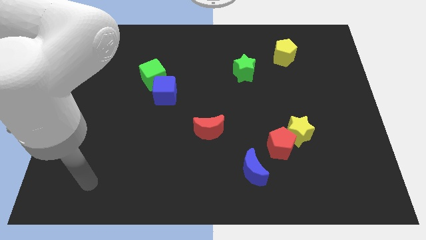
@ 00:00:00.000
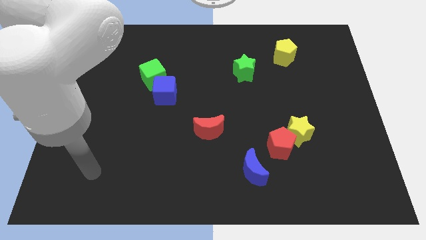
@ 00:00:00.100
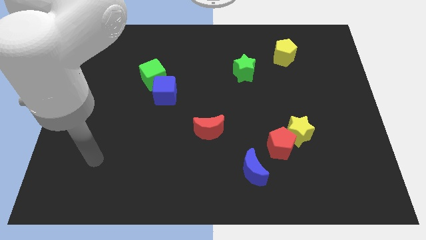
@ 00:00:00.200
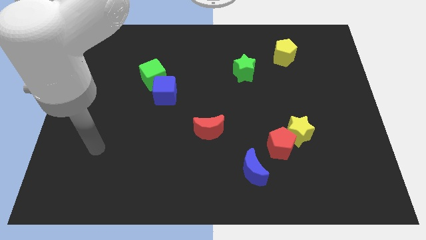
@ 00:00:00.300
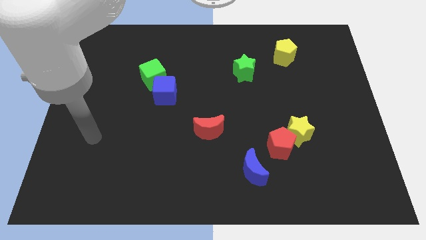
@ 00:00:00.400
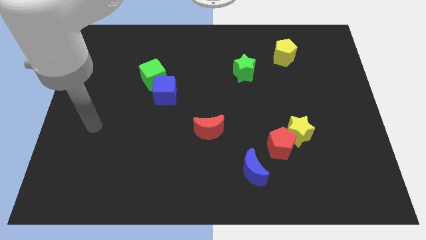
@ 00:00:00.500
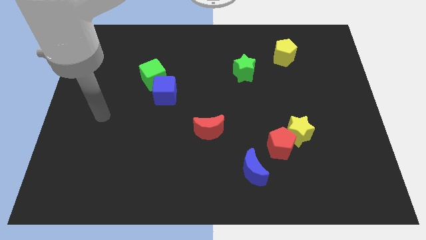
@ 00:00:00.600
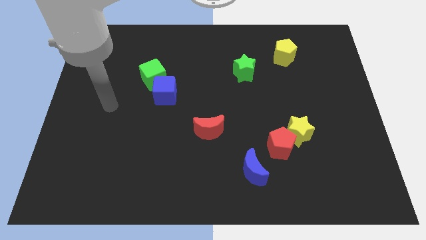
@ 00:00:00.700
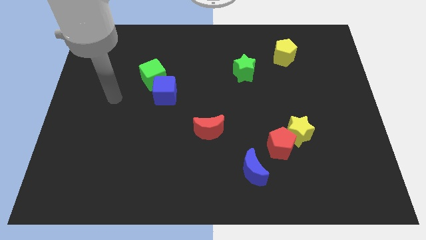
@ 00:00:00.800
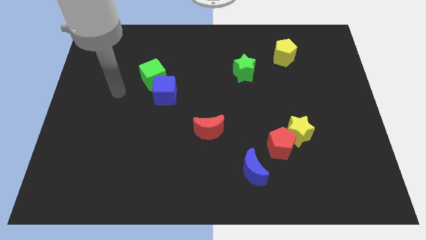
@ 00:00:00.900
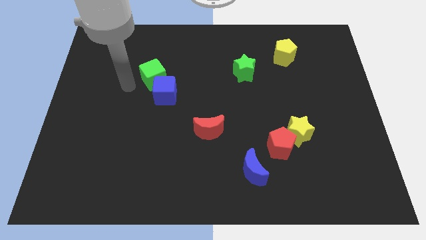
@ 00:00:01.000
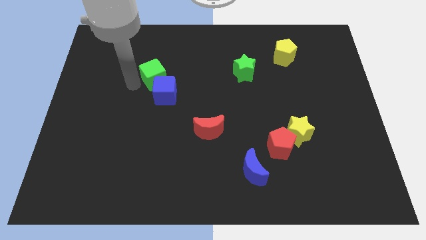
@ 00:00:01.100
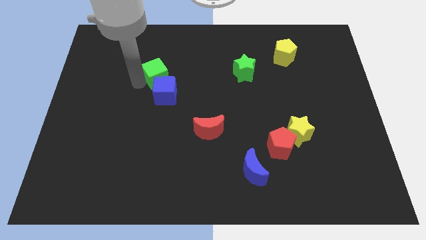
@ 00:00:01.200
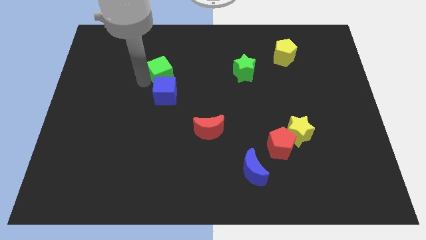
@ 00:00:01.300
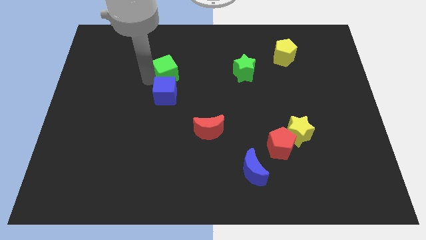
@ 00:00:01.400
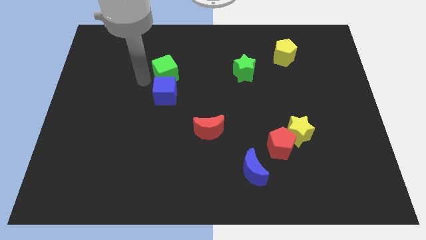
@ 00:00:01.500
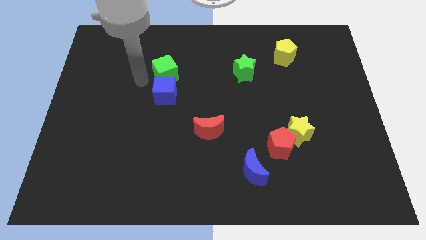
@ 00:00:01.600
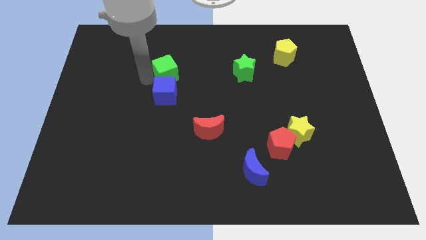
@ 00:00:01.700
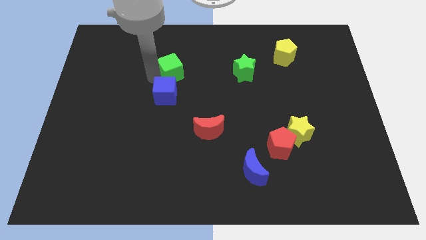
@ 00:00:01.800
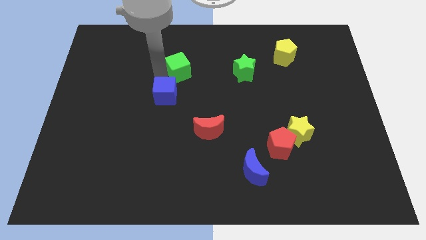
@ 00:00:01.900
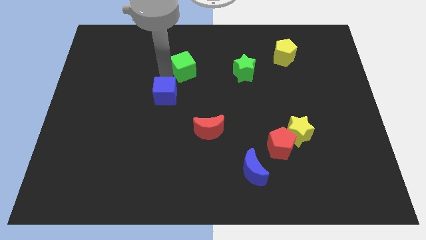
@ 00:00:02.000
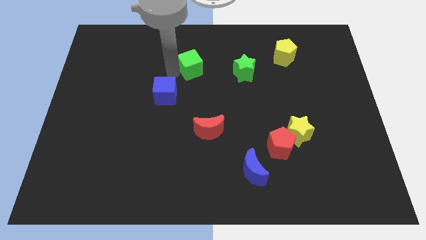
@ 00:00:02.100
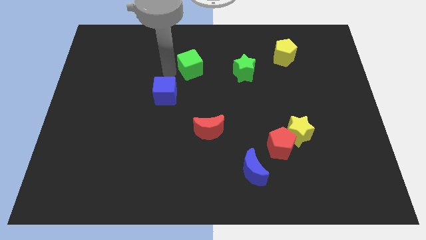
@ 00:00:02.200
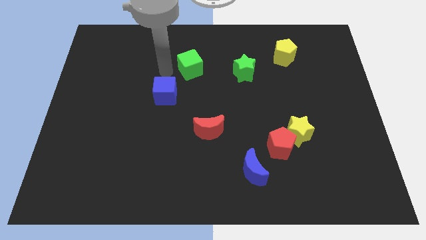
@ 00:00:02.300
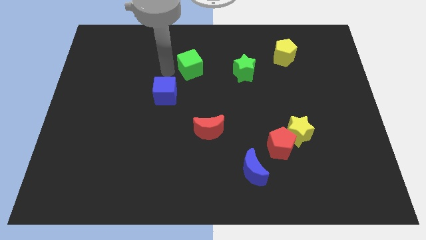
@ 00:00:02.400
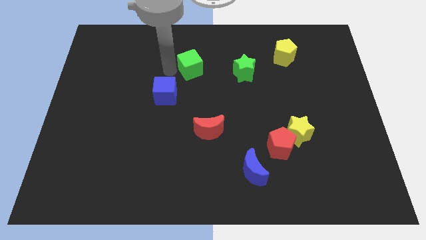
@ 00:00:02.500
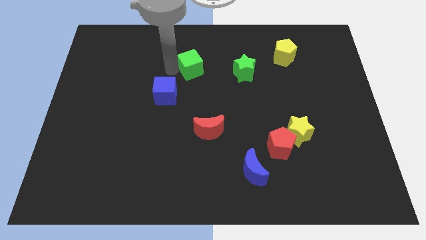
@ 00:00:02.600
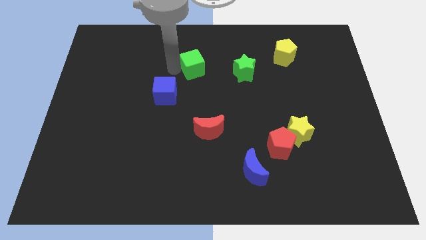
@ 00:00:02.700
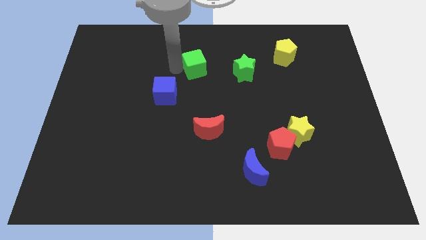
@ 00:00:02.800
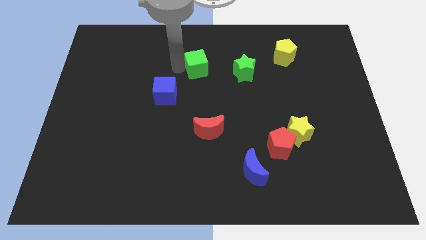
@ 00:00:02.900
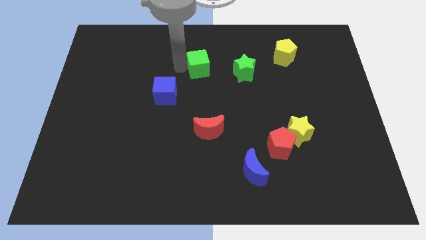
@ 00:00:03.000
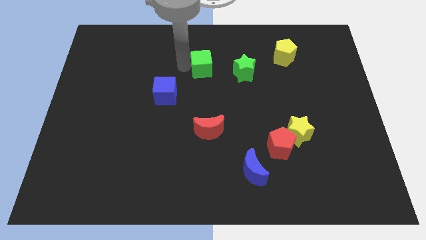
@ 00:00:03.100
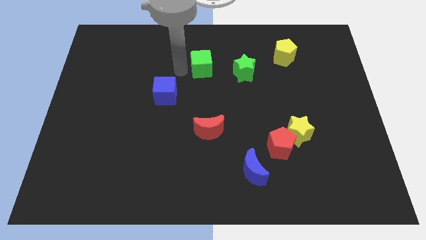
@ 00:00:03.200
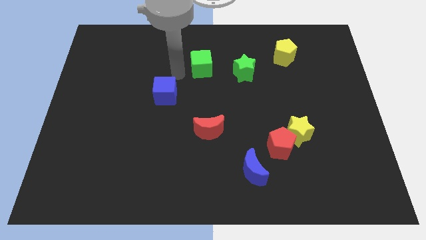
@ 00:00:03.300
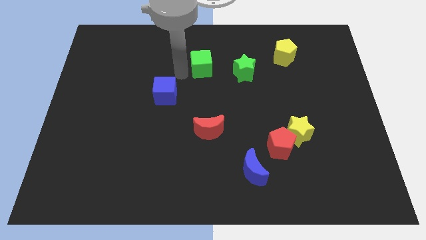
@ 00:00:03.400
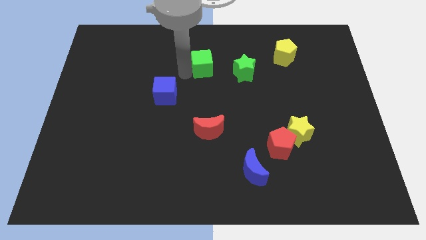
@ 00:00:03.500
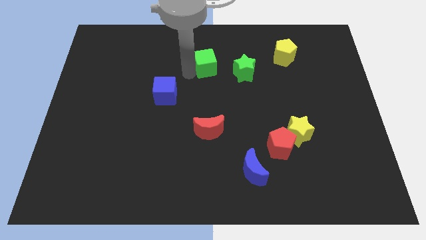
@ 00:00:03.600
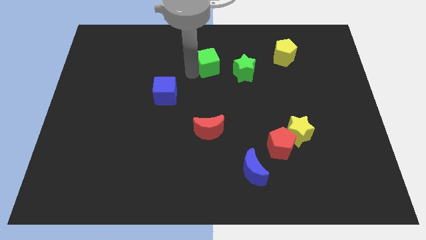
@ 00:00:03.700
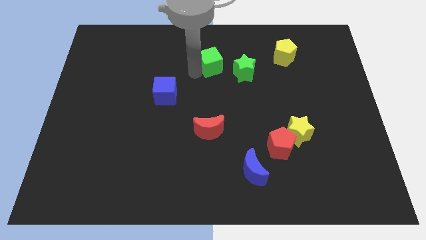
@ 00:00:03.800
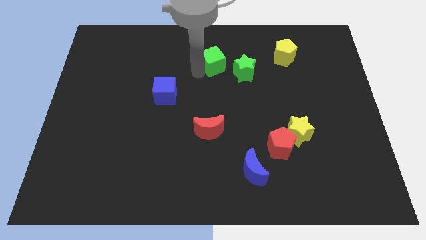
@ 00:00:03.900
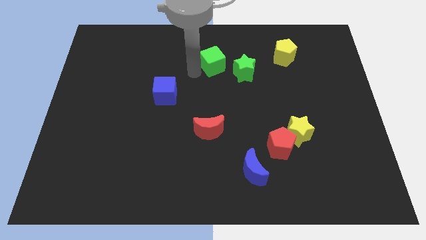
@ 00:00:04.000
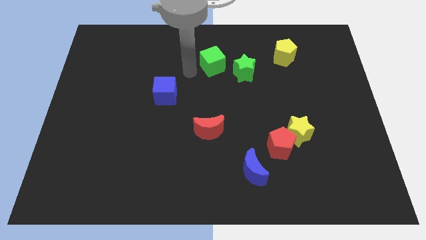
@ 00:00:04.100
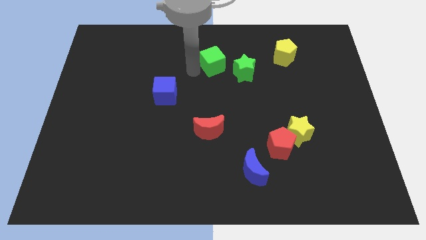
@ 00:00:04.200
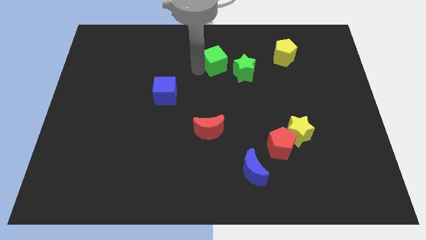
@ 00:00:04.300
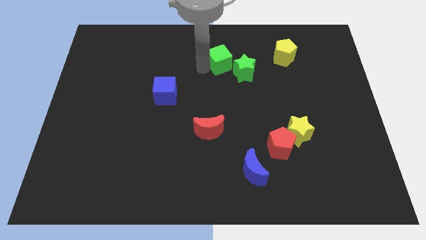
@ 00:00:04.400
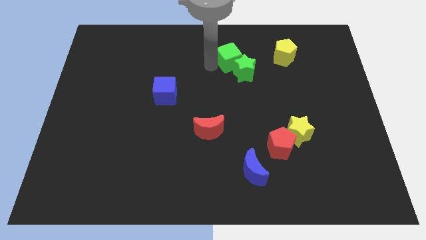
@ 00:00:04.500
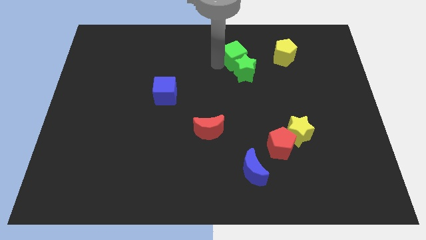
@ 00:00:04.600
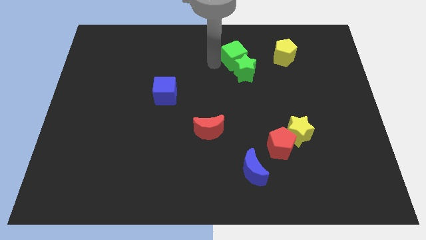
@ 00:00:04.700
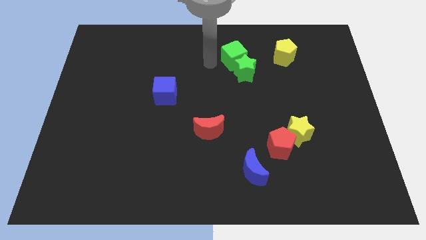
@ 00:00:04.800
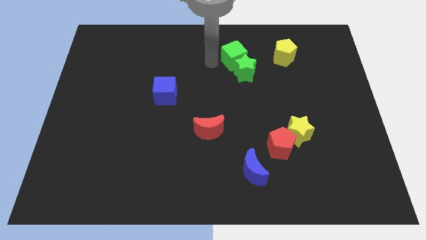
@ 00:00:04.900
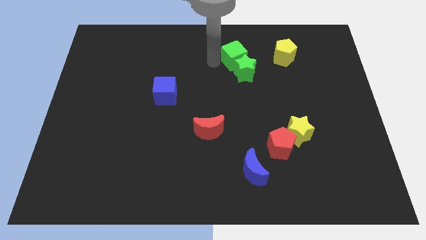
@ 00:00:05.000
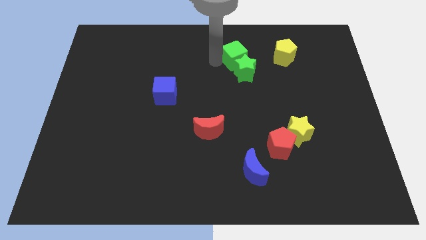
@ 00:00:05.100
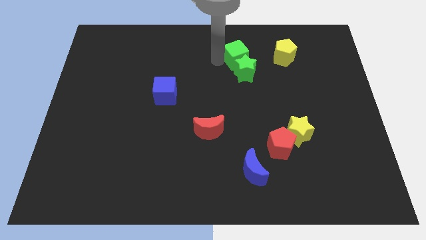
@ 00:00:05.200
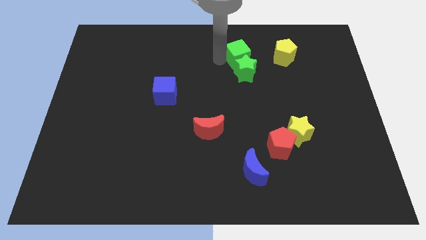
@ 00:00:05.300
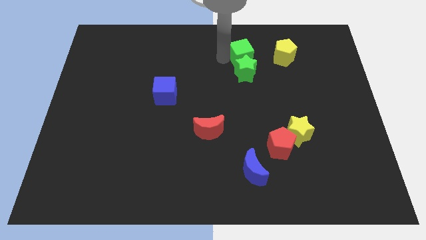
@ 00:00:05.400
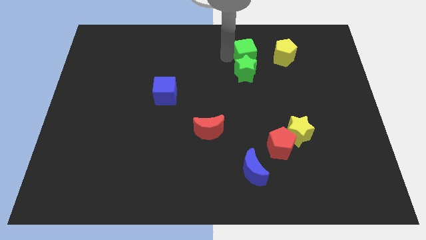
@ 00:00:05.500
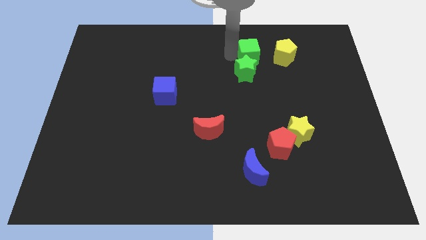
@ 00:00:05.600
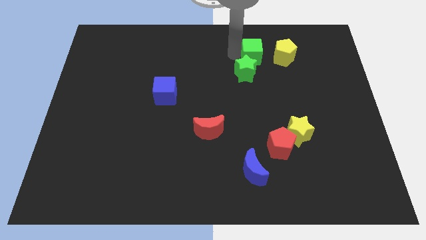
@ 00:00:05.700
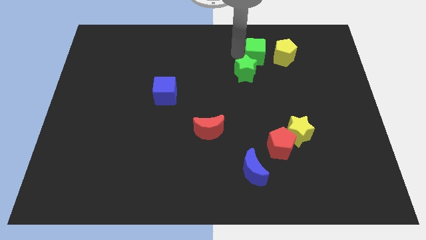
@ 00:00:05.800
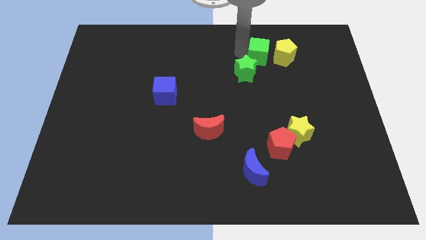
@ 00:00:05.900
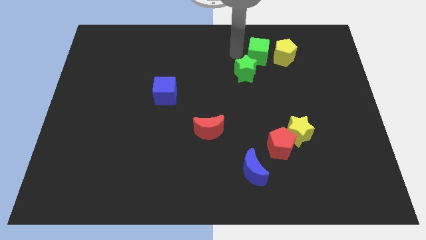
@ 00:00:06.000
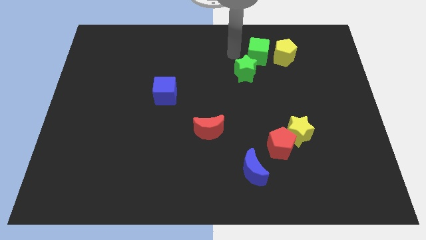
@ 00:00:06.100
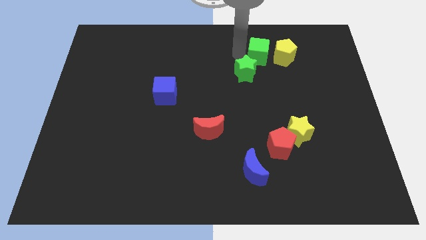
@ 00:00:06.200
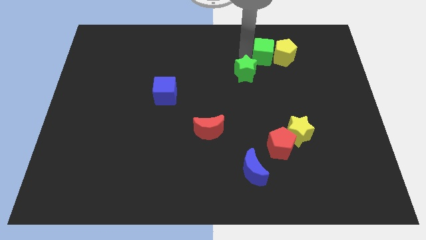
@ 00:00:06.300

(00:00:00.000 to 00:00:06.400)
slide the green cube next to the yellow pentagon

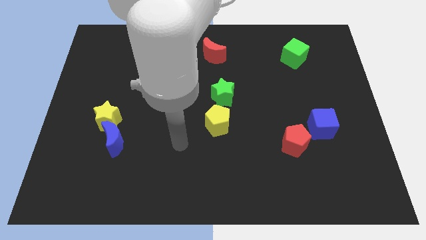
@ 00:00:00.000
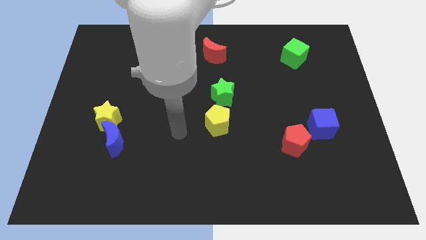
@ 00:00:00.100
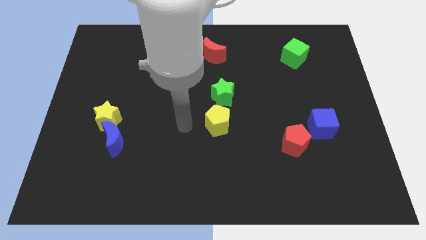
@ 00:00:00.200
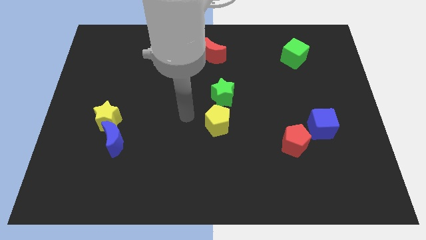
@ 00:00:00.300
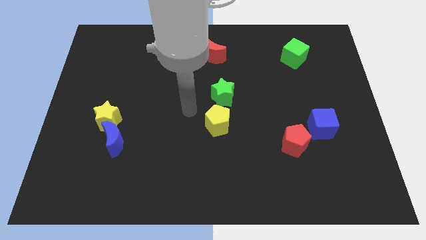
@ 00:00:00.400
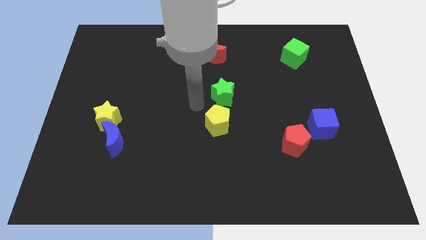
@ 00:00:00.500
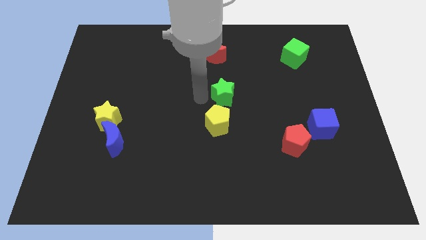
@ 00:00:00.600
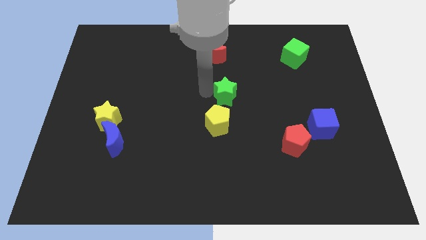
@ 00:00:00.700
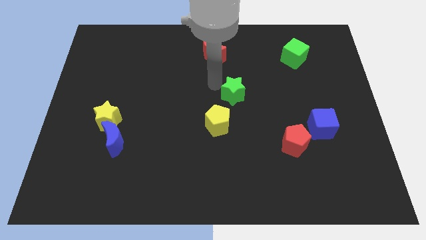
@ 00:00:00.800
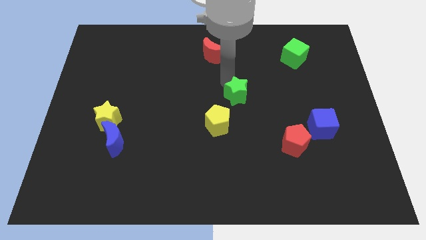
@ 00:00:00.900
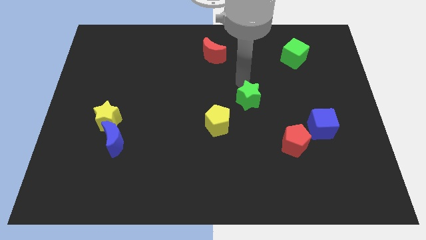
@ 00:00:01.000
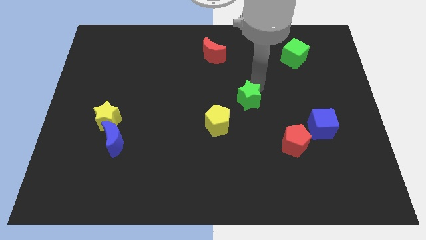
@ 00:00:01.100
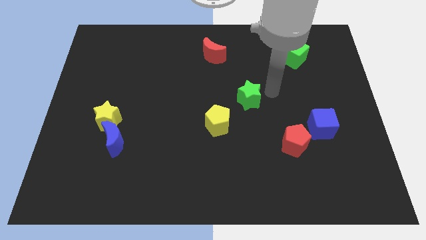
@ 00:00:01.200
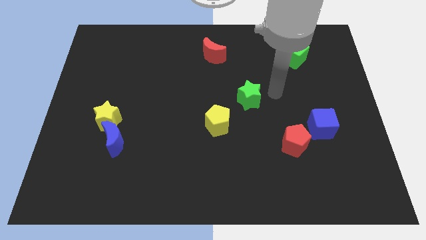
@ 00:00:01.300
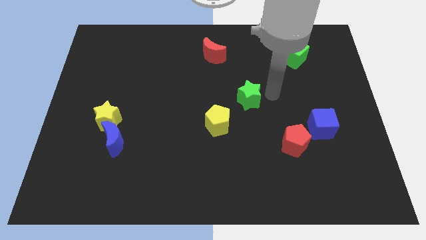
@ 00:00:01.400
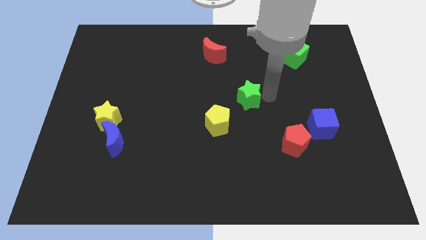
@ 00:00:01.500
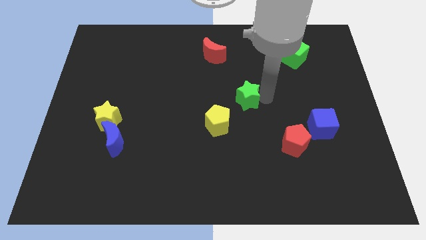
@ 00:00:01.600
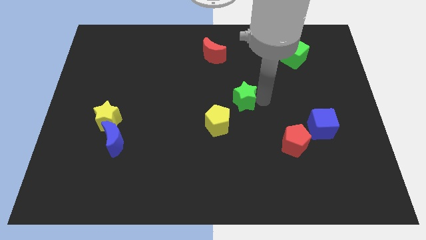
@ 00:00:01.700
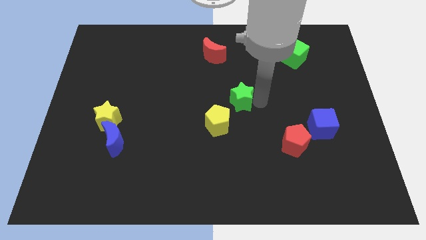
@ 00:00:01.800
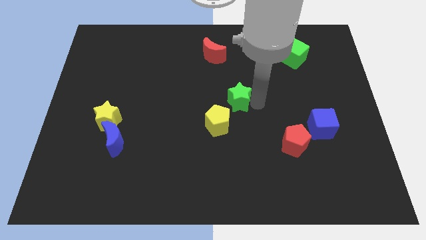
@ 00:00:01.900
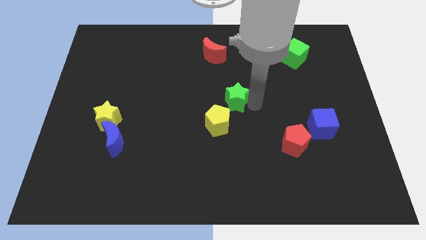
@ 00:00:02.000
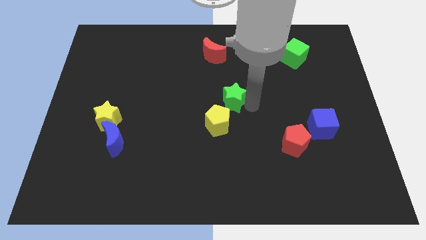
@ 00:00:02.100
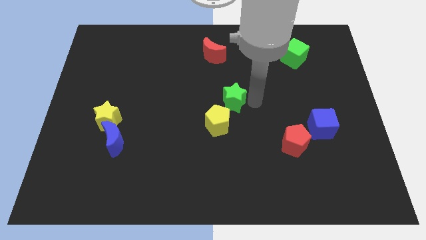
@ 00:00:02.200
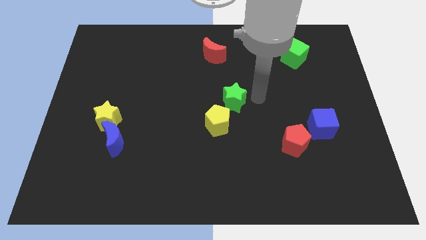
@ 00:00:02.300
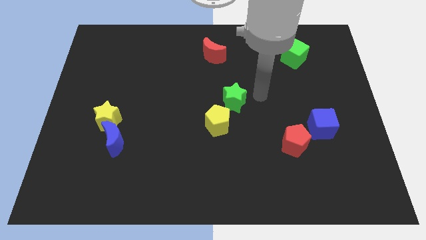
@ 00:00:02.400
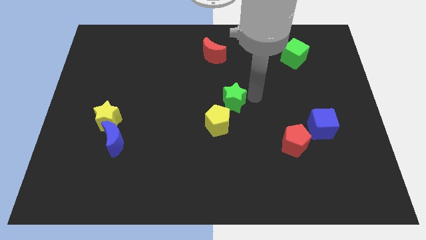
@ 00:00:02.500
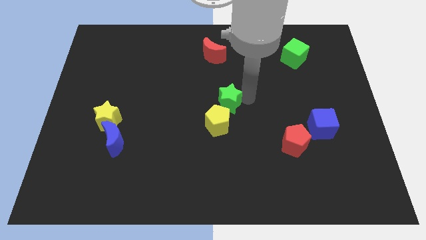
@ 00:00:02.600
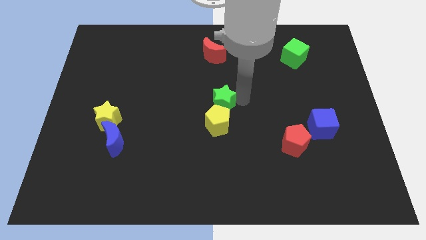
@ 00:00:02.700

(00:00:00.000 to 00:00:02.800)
move the green star next to the yellow pentagon
